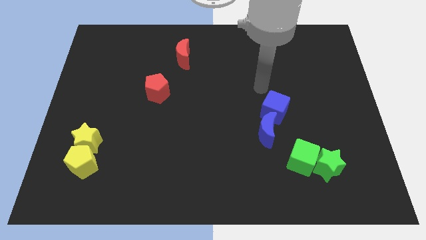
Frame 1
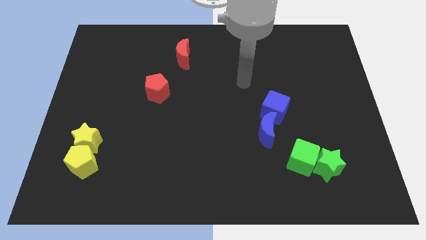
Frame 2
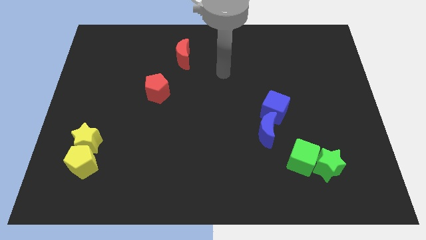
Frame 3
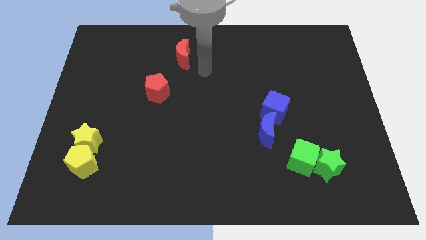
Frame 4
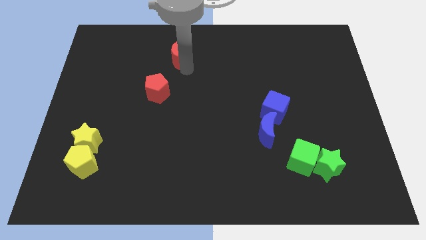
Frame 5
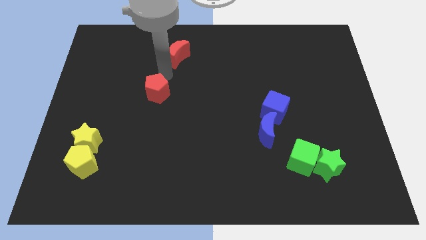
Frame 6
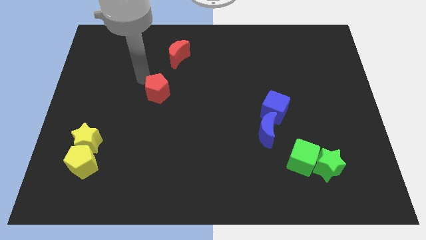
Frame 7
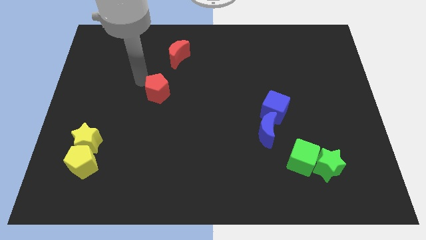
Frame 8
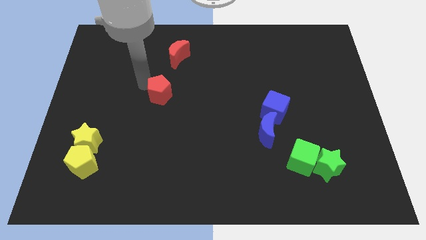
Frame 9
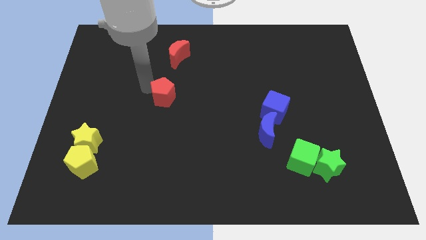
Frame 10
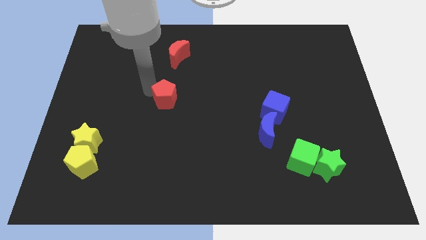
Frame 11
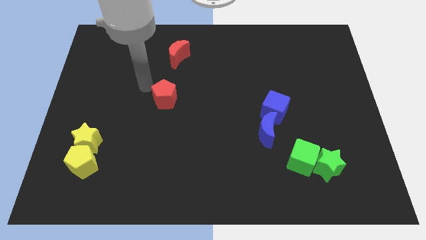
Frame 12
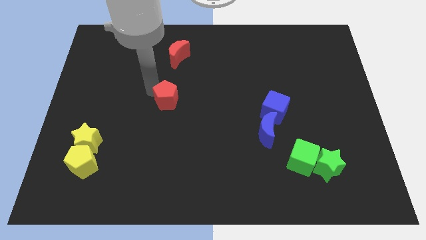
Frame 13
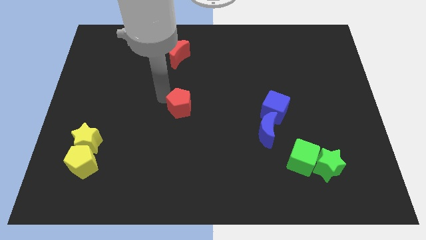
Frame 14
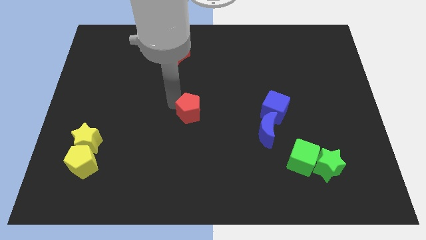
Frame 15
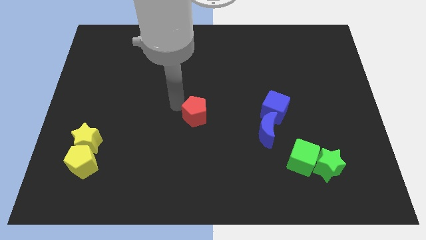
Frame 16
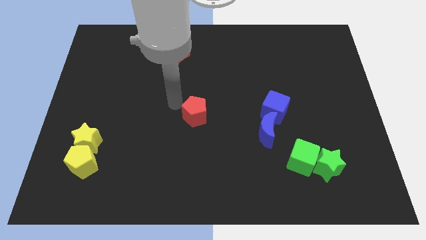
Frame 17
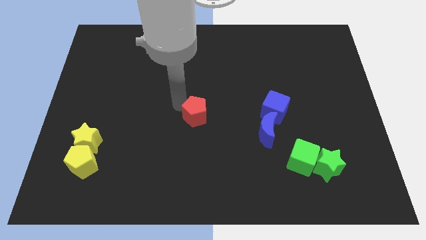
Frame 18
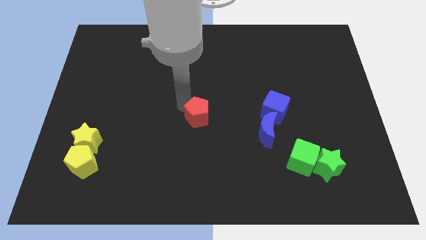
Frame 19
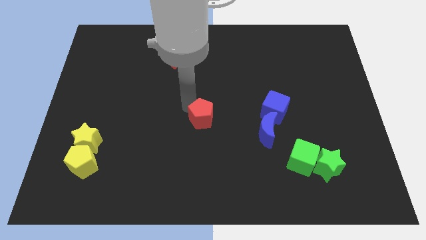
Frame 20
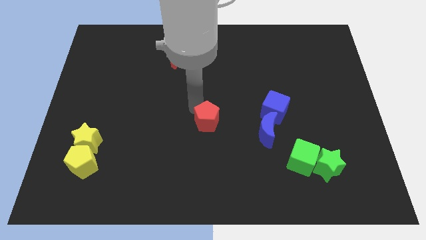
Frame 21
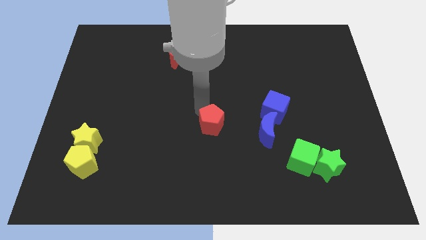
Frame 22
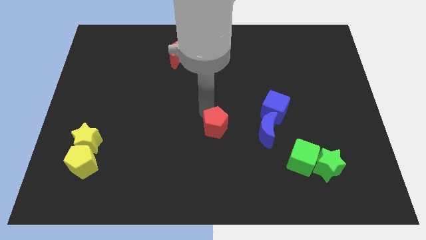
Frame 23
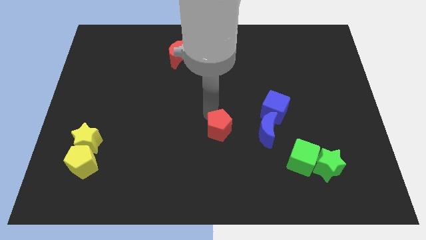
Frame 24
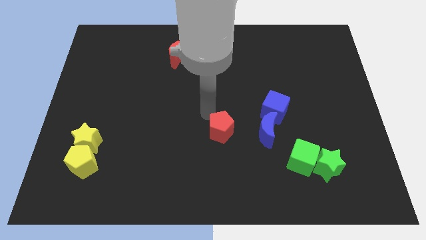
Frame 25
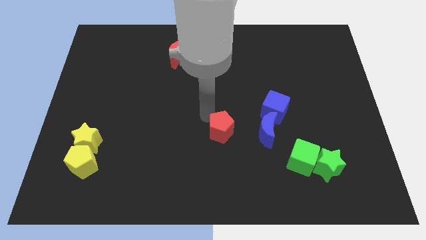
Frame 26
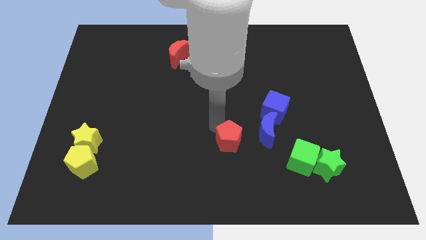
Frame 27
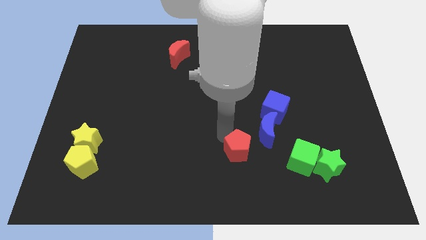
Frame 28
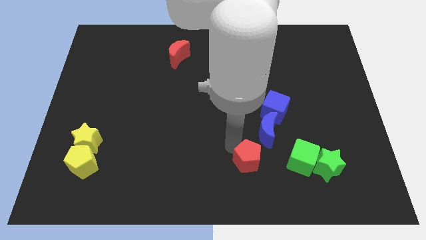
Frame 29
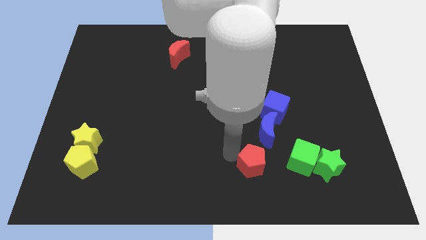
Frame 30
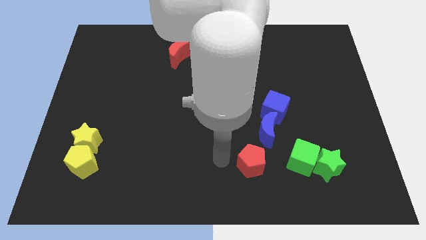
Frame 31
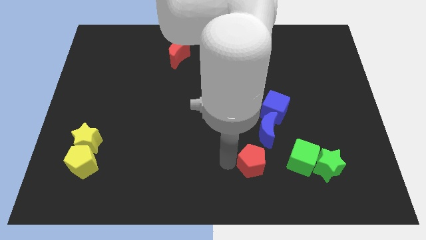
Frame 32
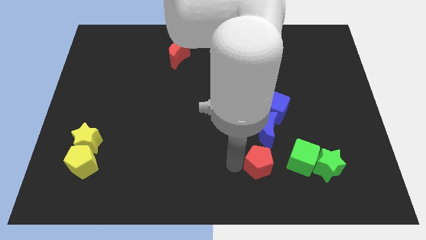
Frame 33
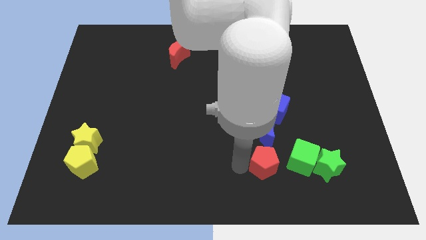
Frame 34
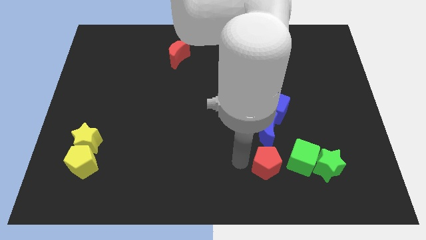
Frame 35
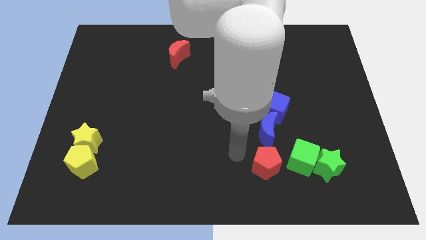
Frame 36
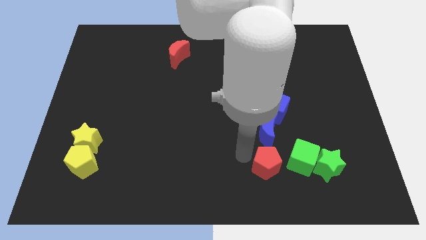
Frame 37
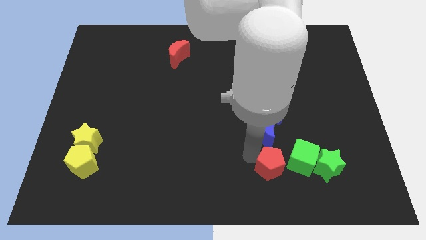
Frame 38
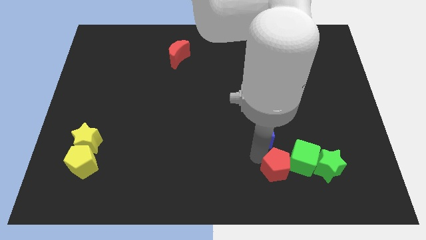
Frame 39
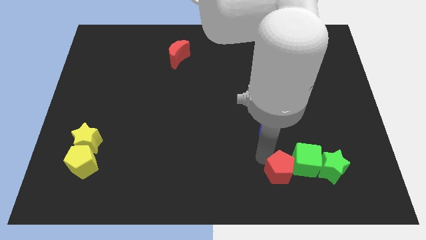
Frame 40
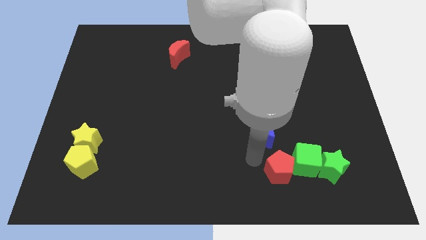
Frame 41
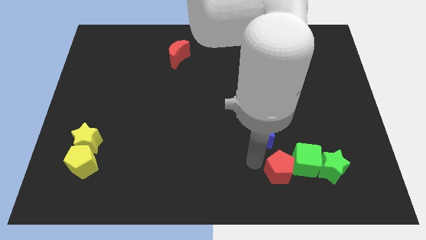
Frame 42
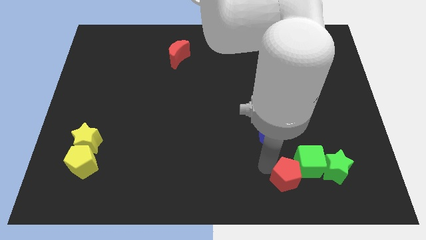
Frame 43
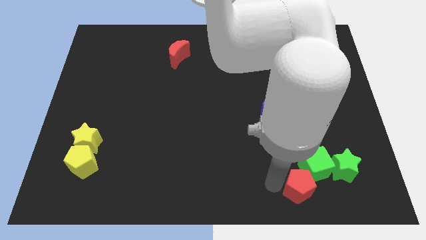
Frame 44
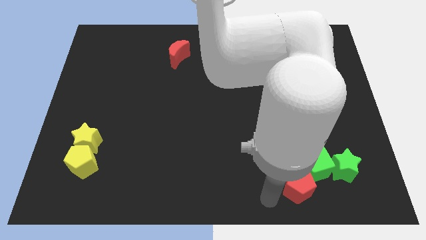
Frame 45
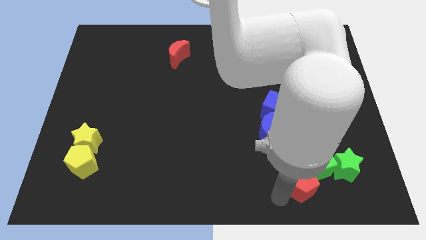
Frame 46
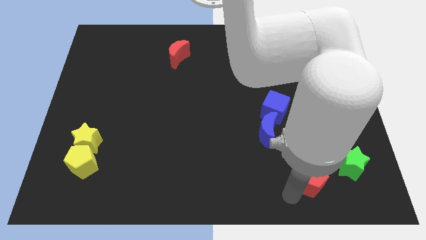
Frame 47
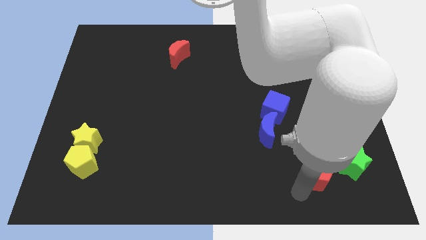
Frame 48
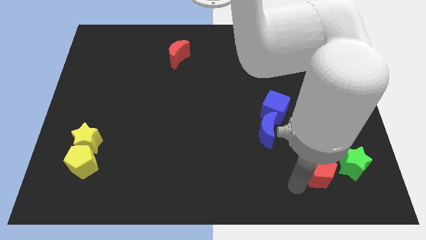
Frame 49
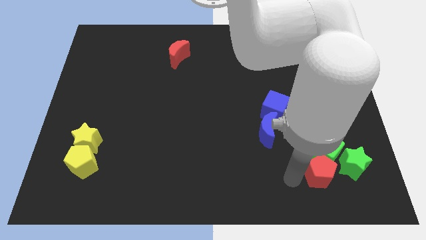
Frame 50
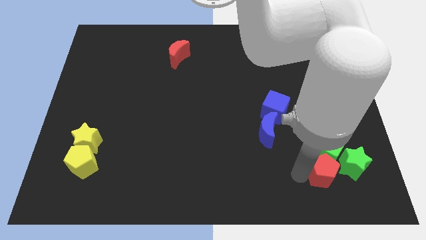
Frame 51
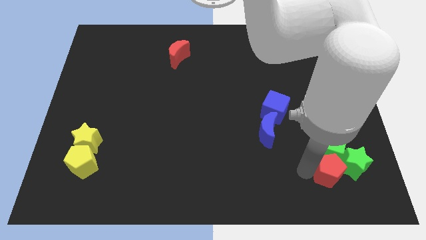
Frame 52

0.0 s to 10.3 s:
put the red pentagon towards the green star

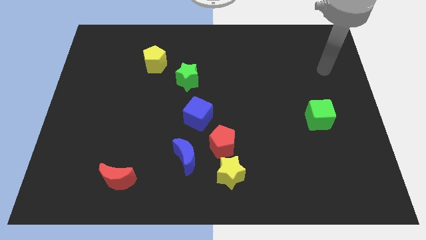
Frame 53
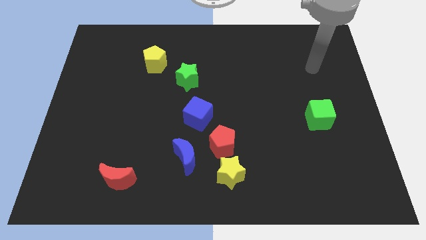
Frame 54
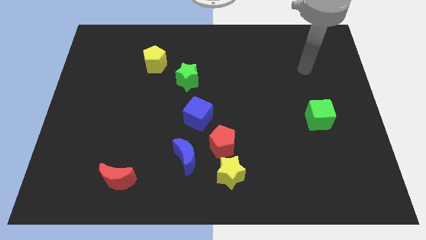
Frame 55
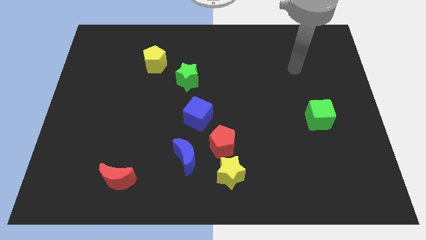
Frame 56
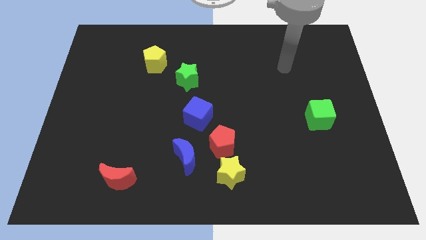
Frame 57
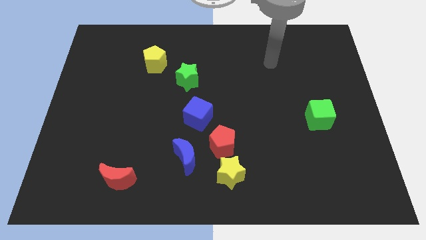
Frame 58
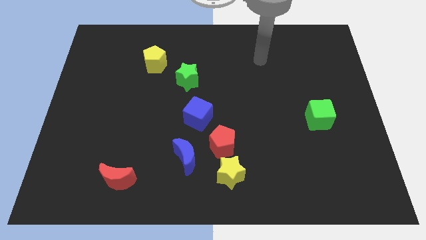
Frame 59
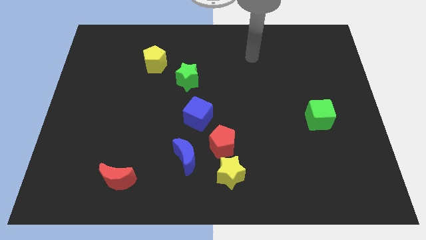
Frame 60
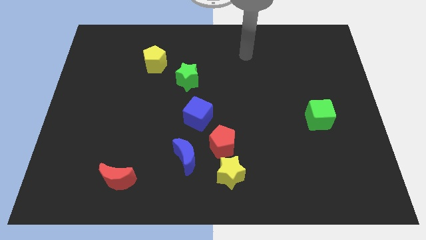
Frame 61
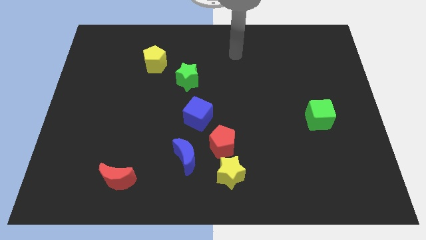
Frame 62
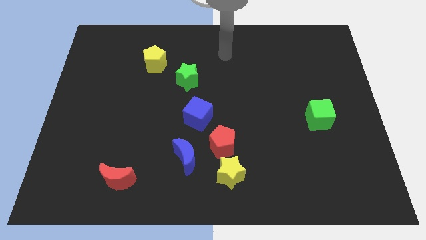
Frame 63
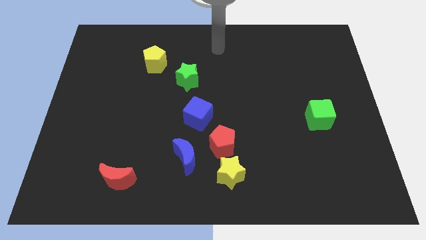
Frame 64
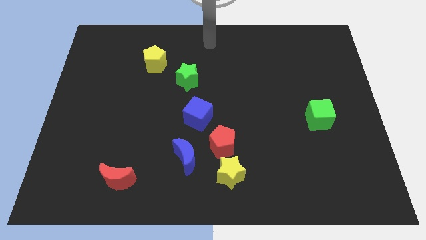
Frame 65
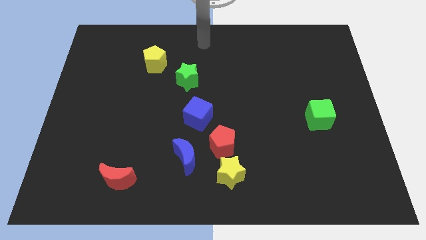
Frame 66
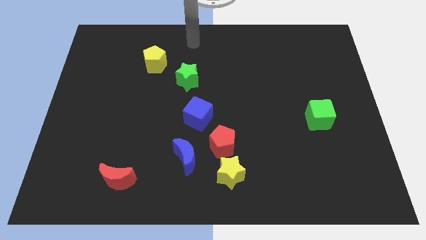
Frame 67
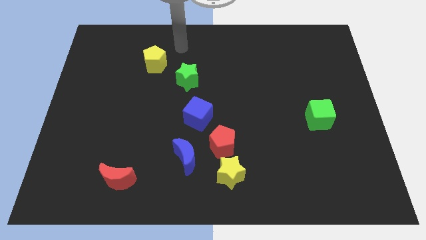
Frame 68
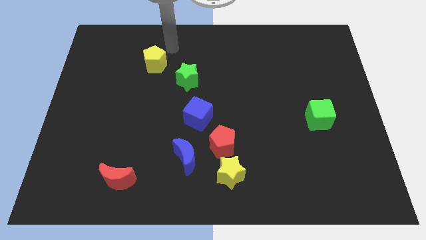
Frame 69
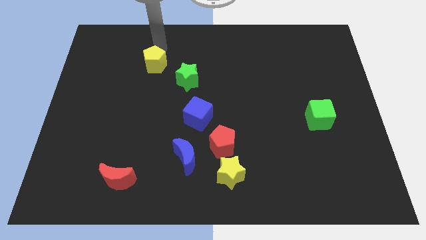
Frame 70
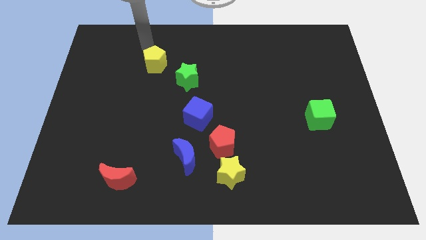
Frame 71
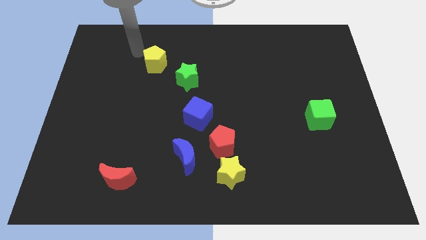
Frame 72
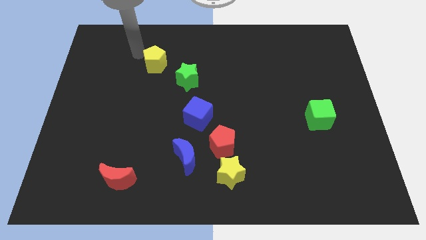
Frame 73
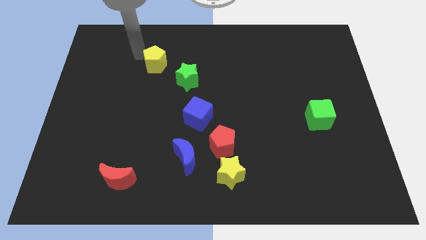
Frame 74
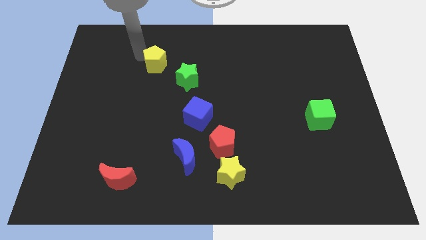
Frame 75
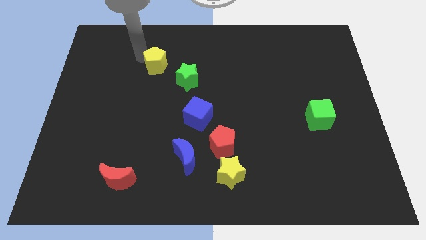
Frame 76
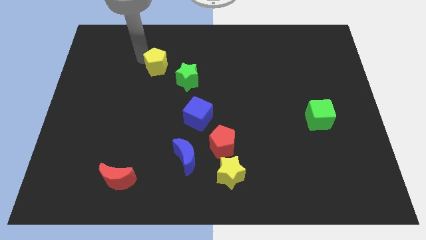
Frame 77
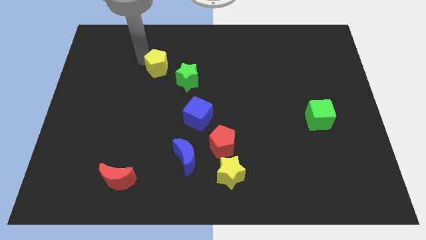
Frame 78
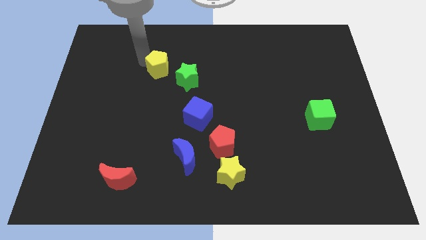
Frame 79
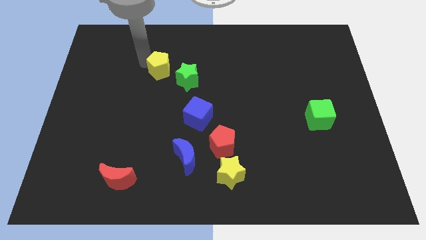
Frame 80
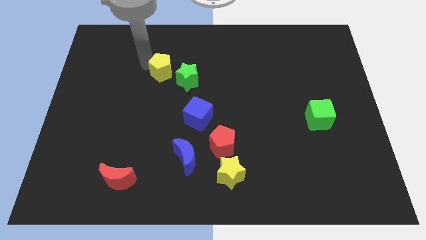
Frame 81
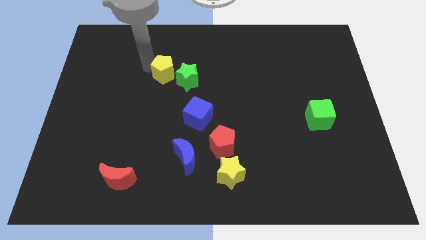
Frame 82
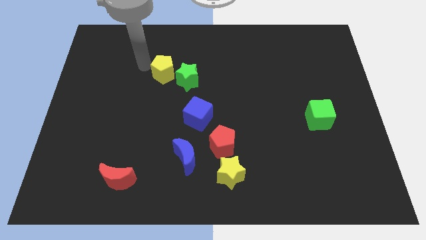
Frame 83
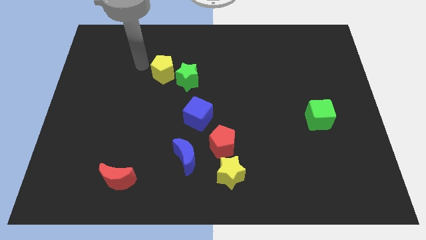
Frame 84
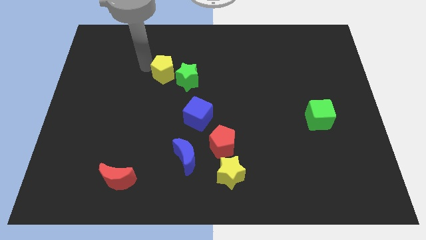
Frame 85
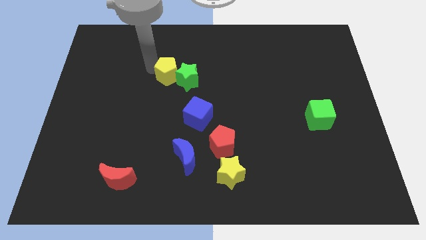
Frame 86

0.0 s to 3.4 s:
put the yellow pentagon towards the green star
